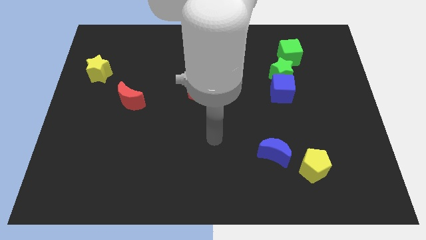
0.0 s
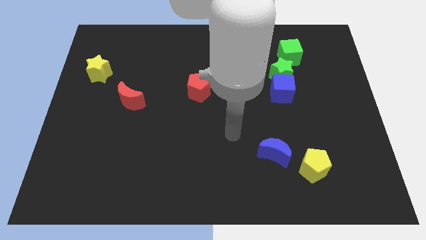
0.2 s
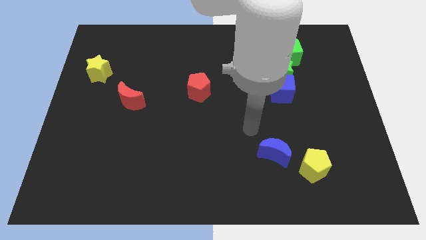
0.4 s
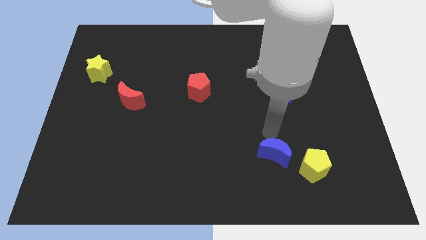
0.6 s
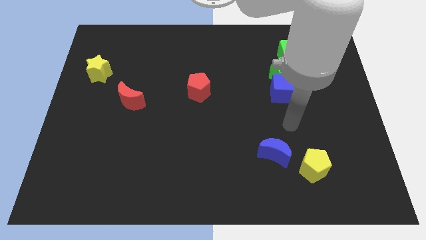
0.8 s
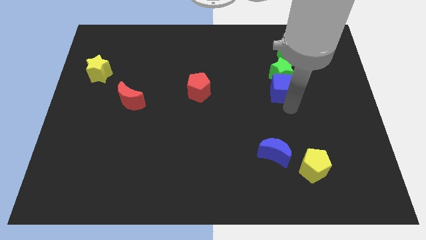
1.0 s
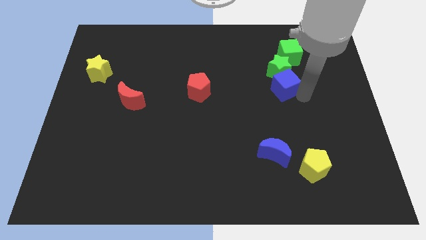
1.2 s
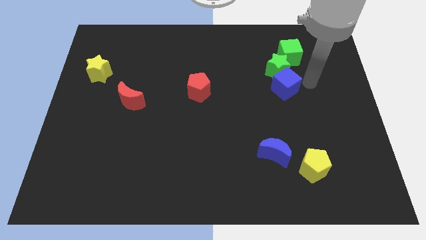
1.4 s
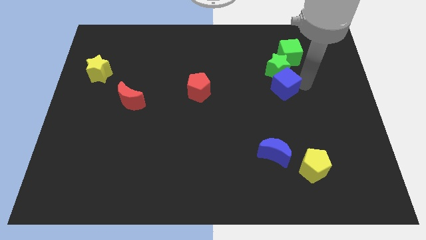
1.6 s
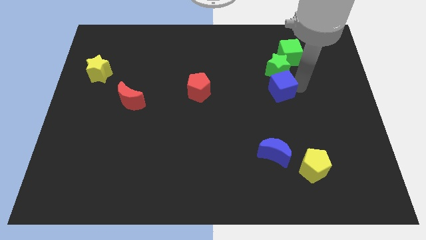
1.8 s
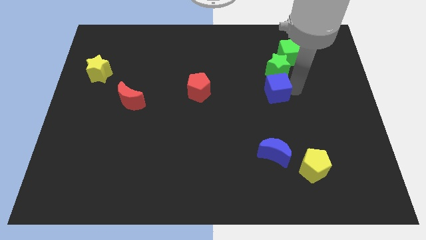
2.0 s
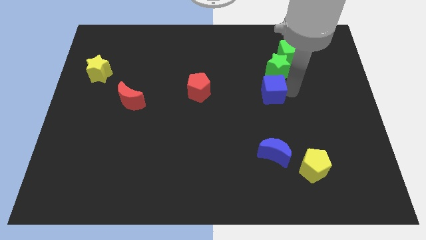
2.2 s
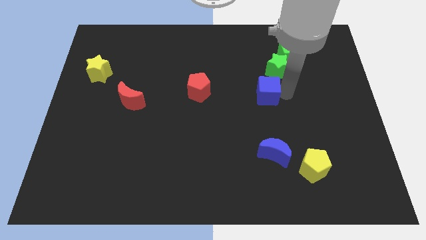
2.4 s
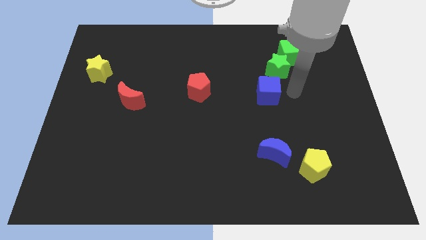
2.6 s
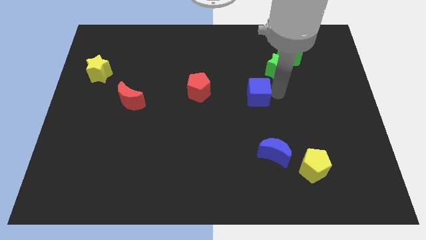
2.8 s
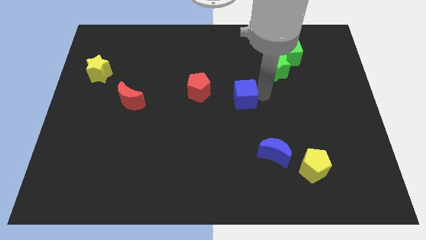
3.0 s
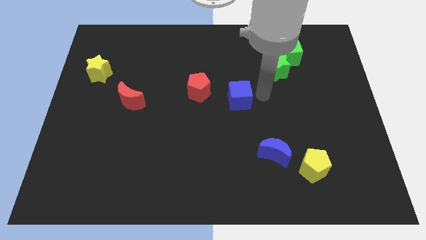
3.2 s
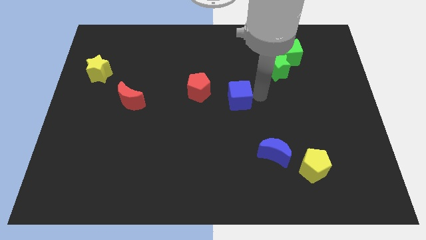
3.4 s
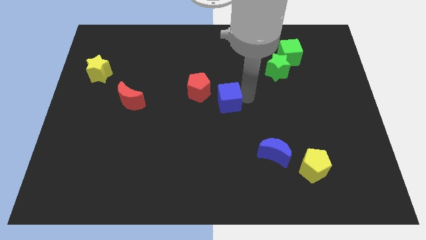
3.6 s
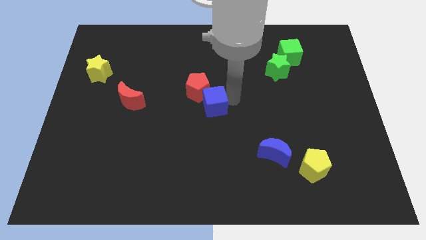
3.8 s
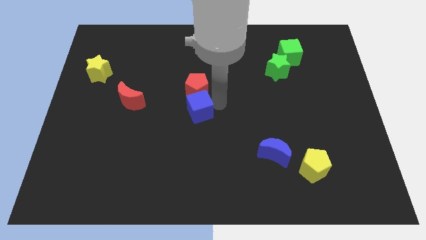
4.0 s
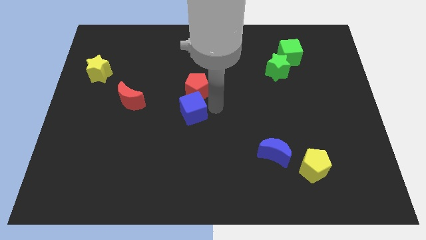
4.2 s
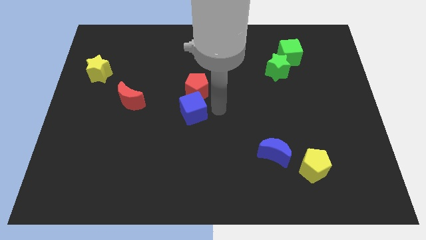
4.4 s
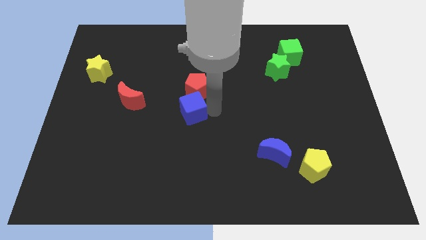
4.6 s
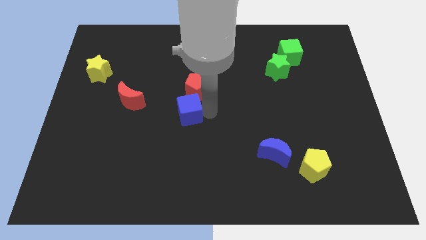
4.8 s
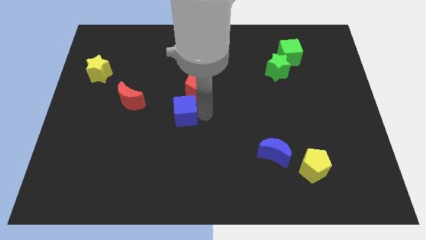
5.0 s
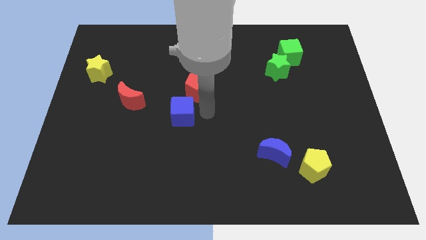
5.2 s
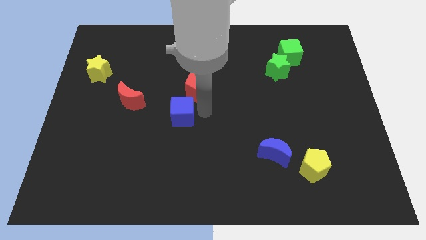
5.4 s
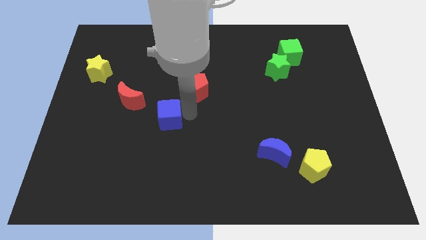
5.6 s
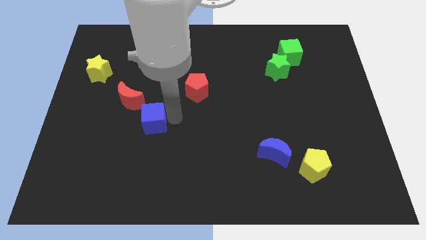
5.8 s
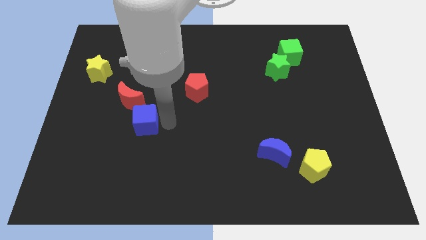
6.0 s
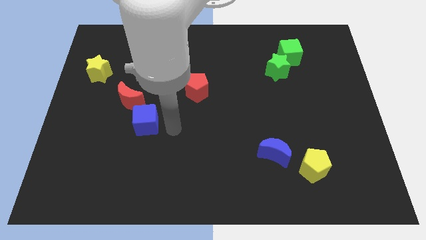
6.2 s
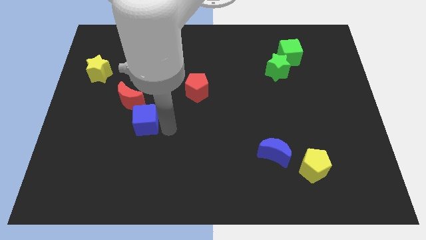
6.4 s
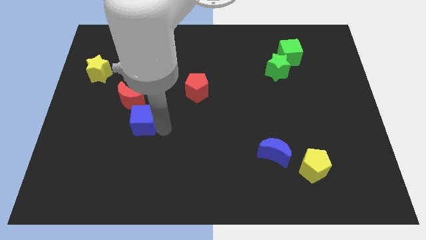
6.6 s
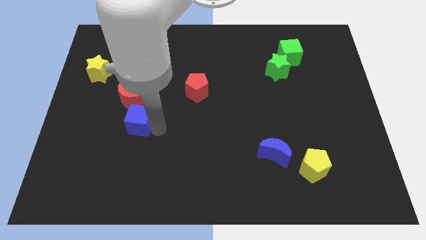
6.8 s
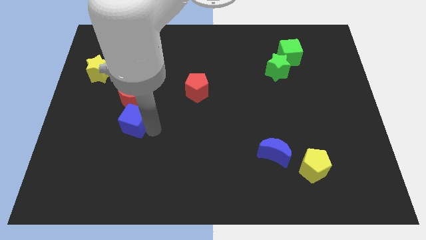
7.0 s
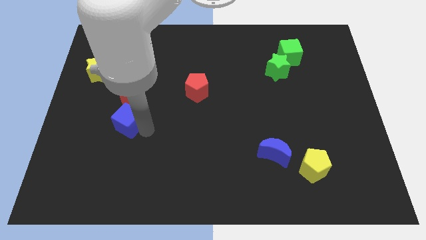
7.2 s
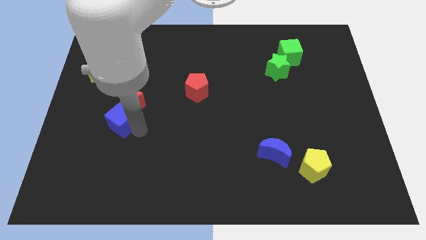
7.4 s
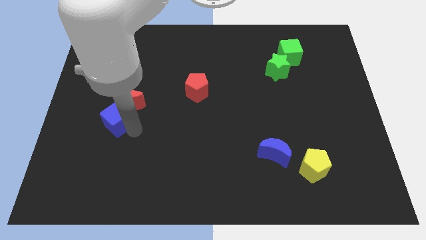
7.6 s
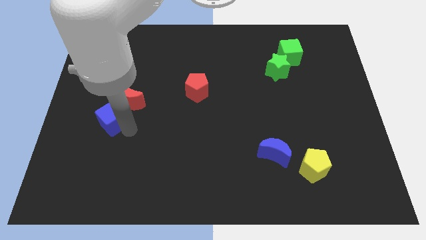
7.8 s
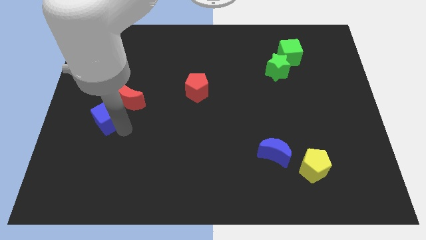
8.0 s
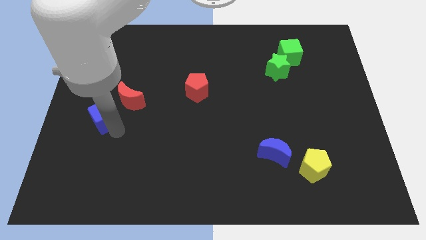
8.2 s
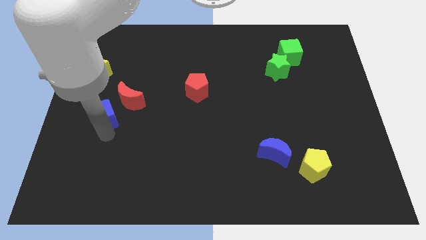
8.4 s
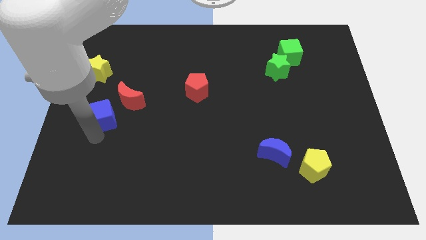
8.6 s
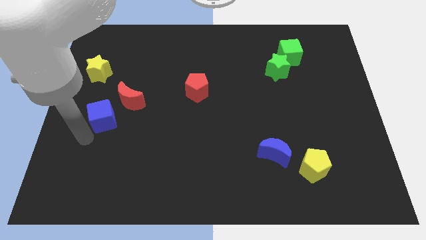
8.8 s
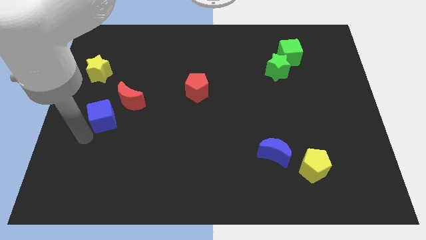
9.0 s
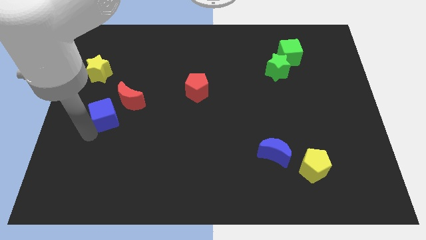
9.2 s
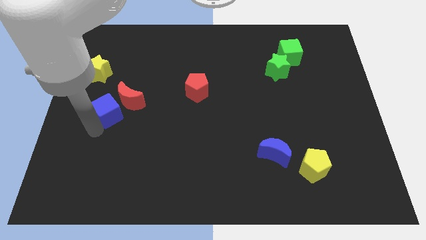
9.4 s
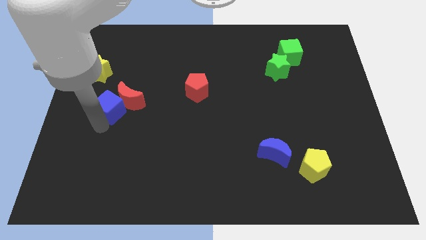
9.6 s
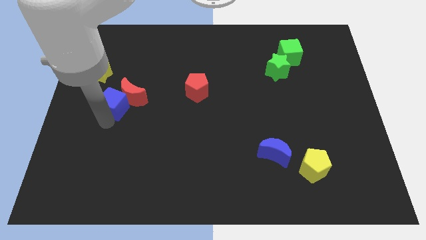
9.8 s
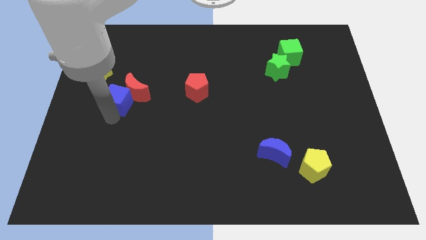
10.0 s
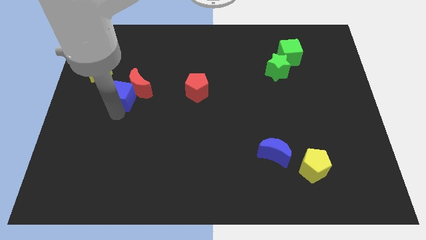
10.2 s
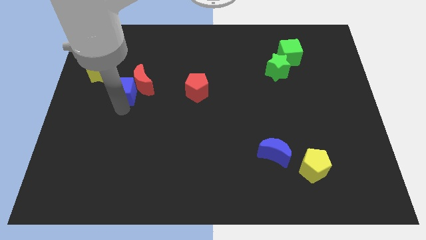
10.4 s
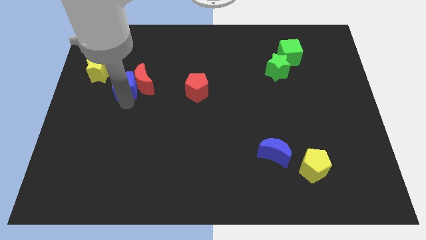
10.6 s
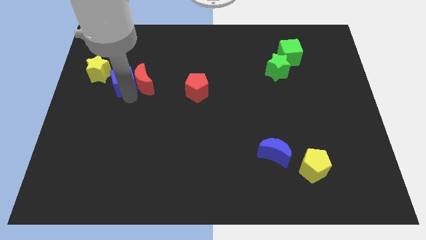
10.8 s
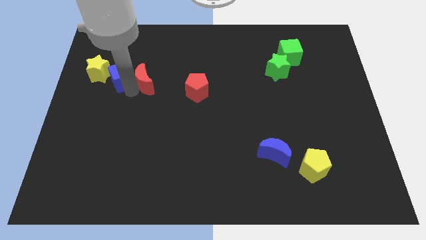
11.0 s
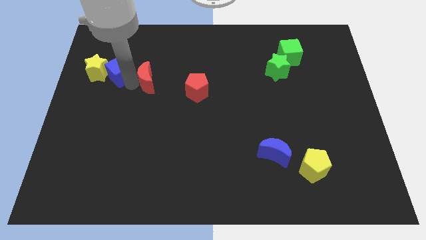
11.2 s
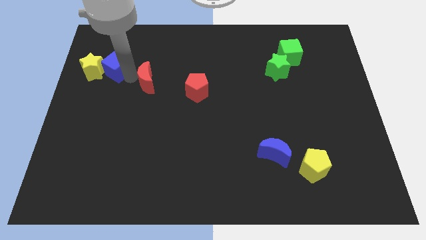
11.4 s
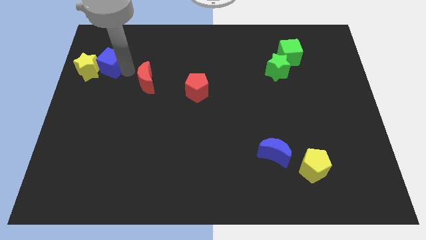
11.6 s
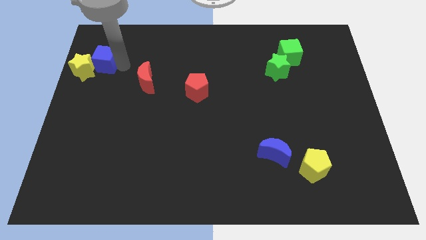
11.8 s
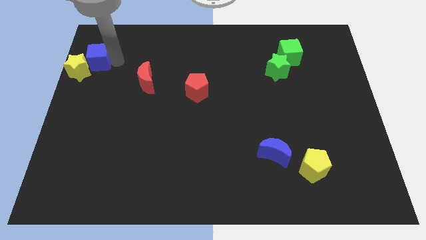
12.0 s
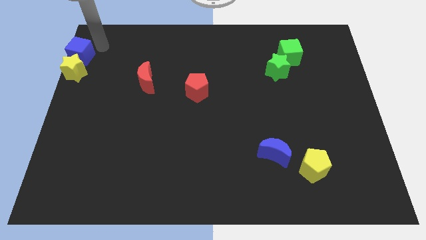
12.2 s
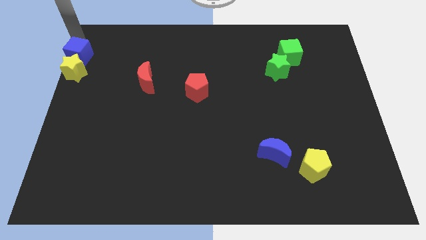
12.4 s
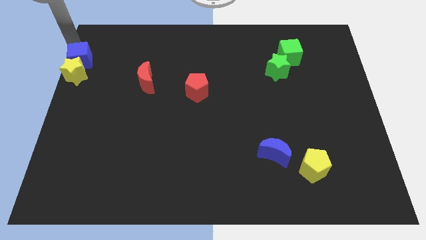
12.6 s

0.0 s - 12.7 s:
move the blue cube to the left side
